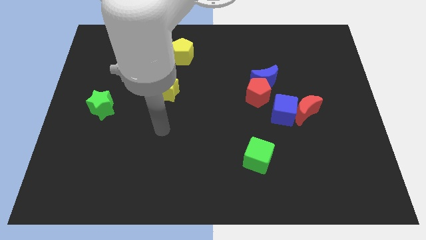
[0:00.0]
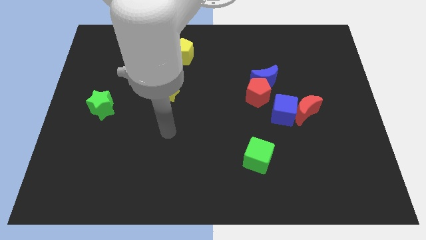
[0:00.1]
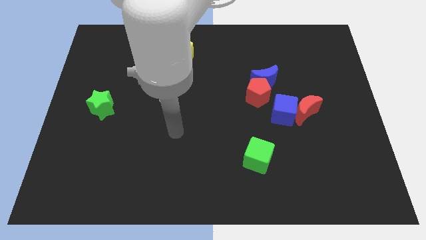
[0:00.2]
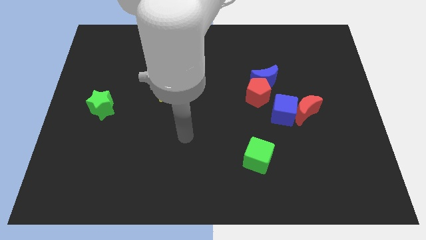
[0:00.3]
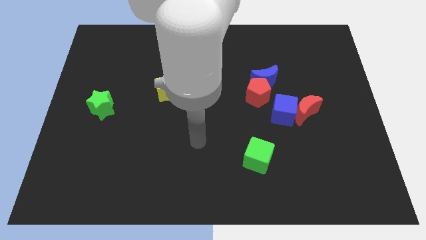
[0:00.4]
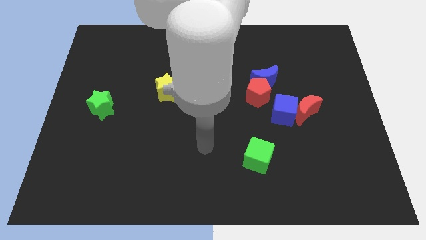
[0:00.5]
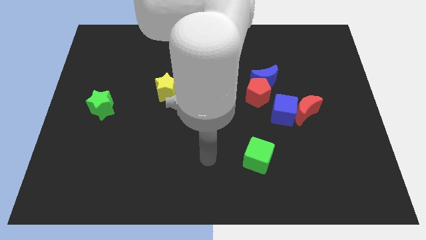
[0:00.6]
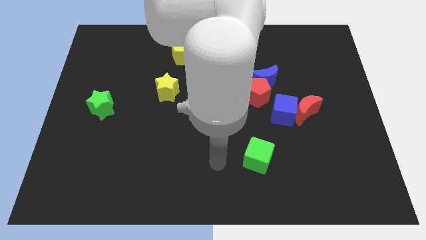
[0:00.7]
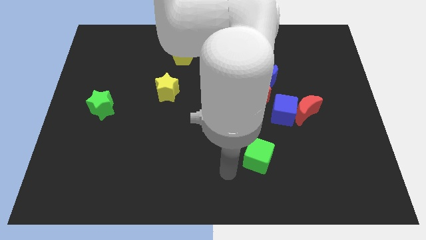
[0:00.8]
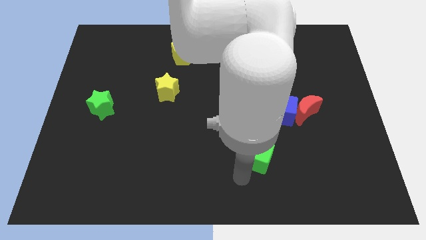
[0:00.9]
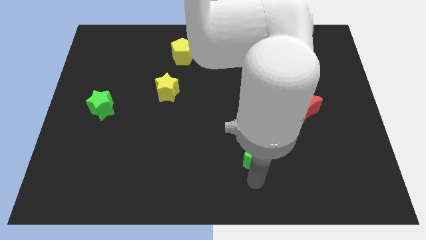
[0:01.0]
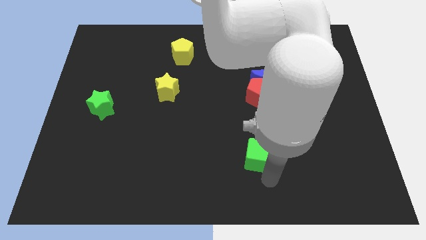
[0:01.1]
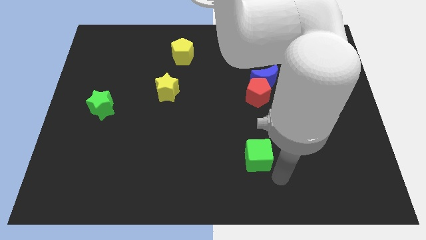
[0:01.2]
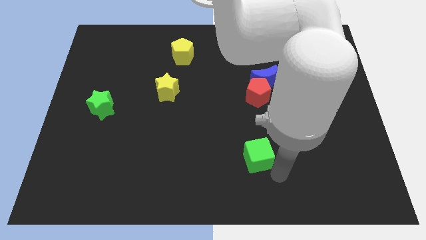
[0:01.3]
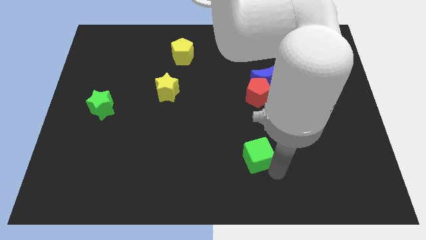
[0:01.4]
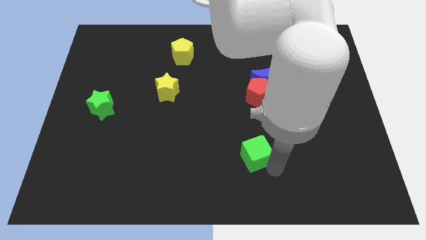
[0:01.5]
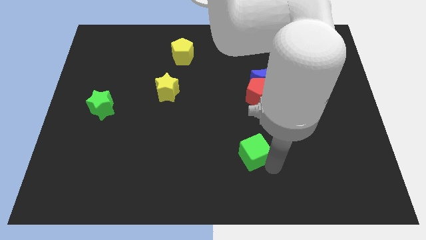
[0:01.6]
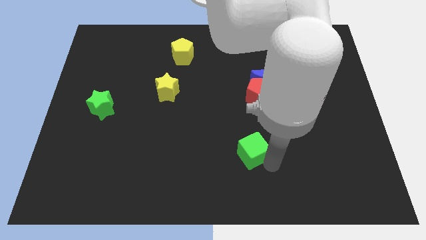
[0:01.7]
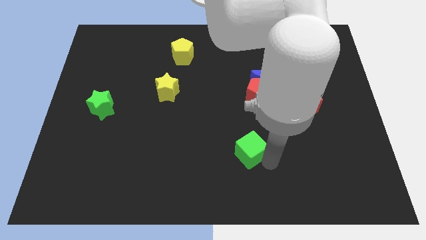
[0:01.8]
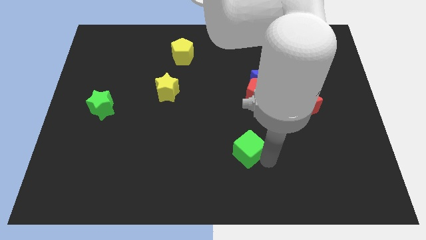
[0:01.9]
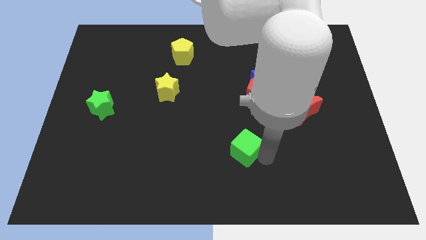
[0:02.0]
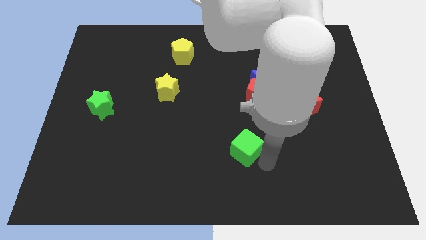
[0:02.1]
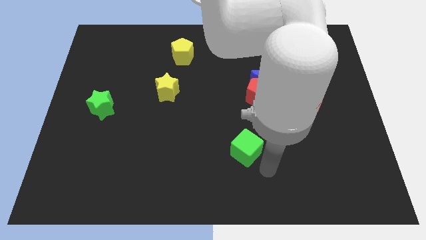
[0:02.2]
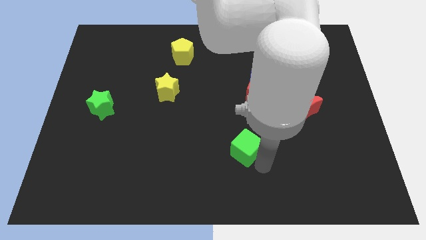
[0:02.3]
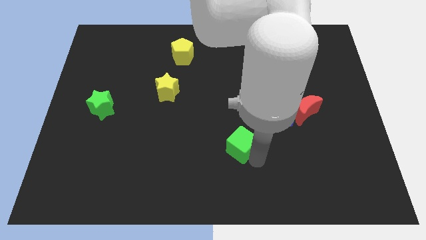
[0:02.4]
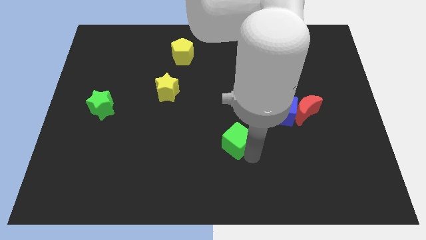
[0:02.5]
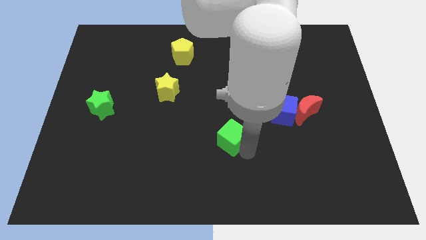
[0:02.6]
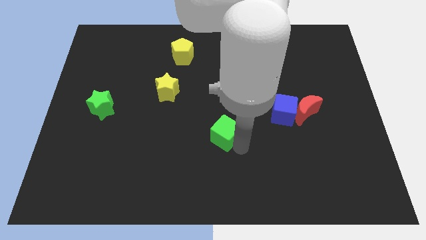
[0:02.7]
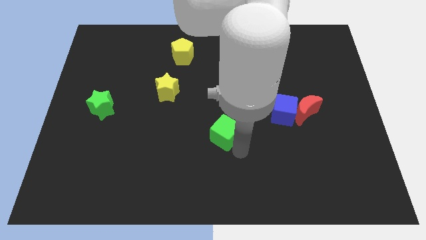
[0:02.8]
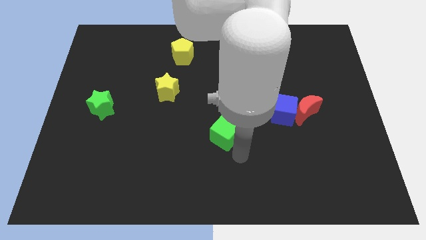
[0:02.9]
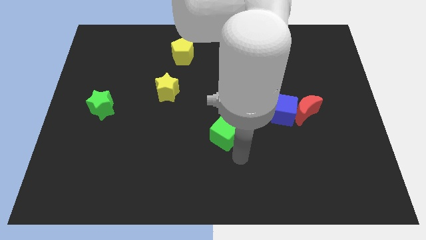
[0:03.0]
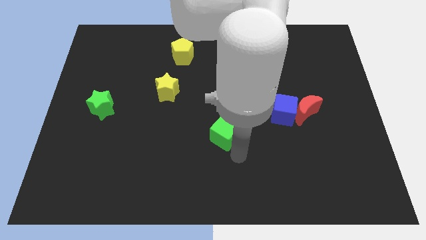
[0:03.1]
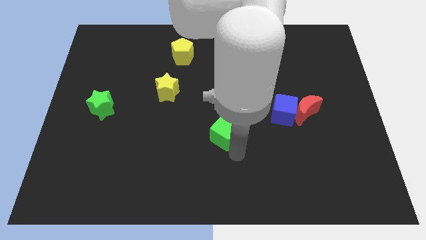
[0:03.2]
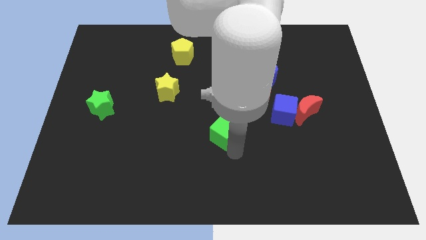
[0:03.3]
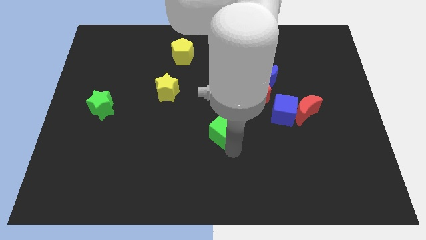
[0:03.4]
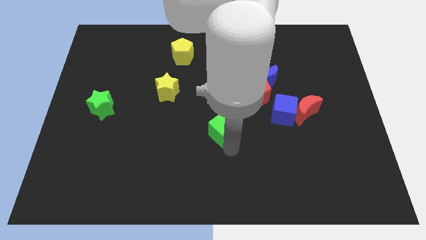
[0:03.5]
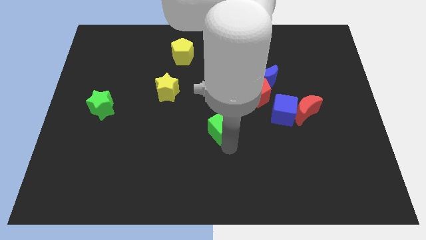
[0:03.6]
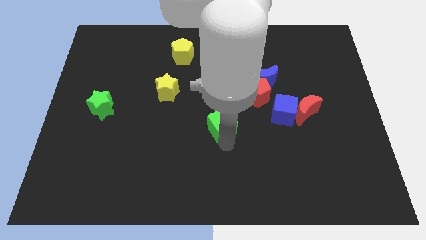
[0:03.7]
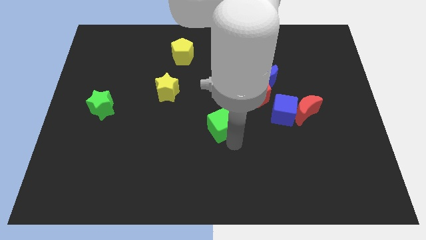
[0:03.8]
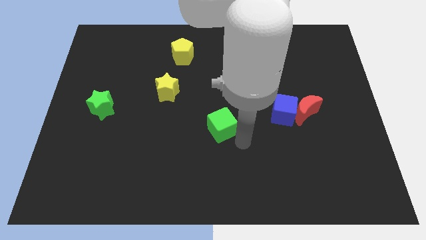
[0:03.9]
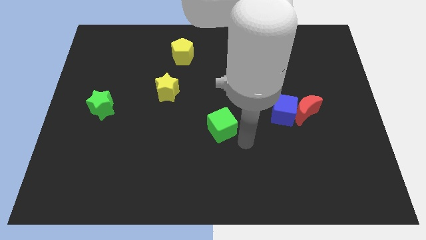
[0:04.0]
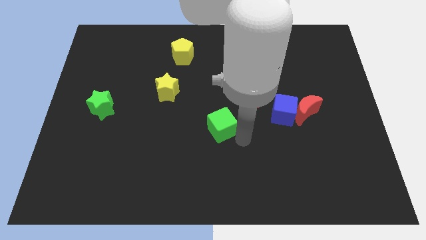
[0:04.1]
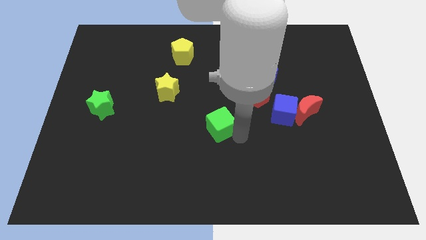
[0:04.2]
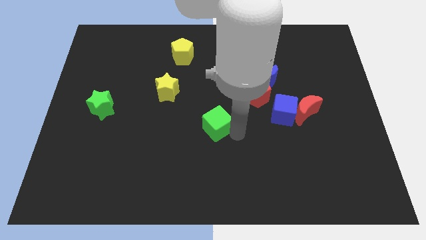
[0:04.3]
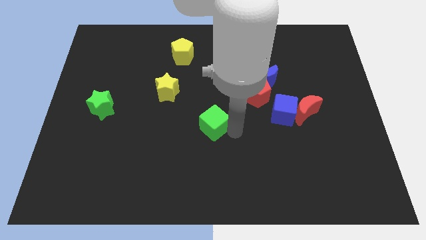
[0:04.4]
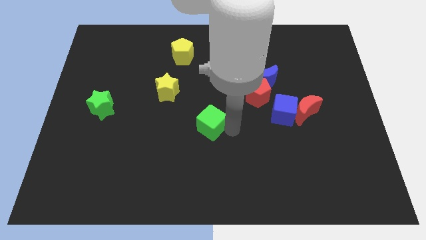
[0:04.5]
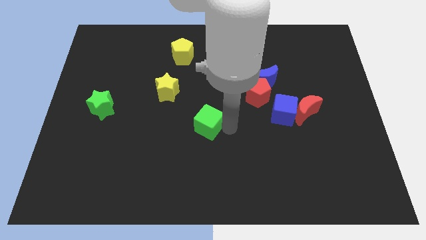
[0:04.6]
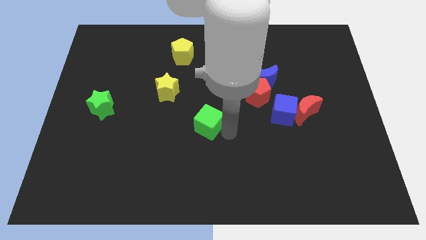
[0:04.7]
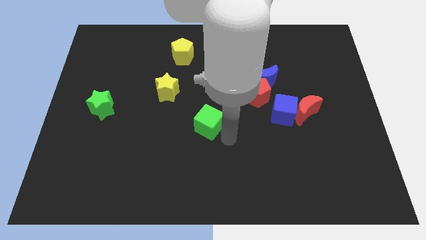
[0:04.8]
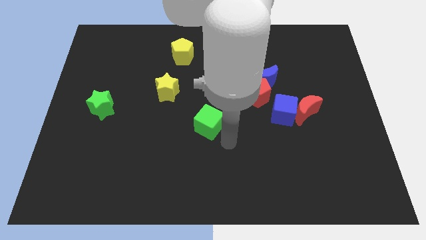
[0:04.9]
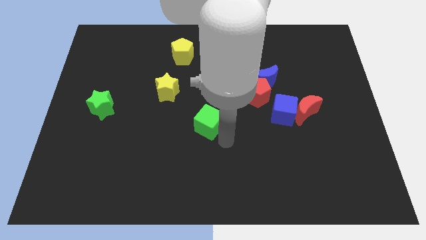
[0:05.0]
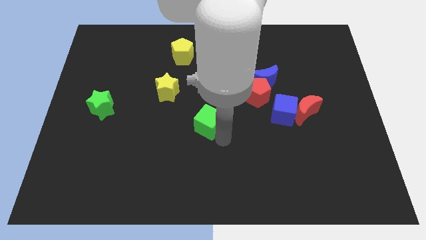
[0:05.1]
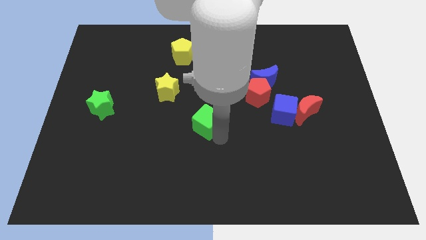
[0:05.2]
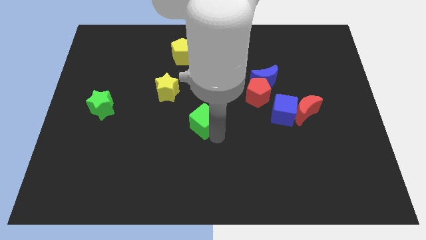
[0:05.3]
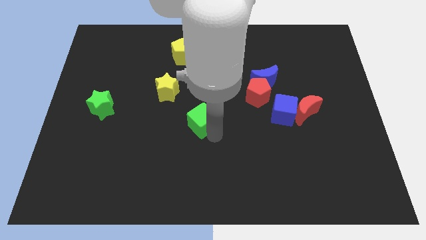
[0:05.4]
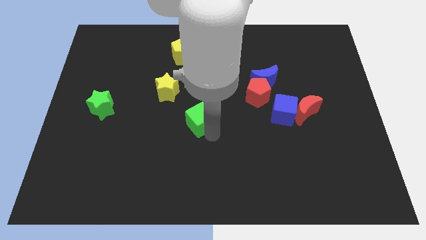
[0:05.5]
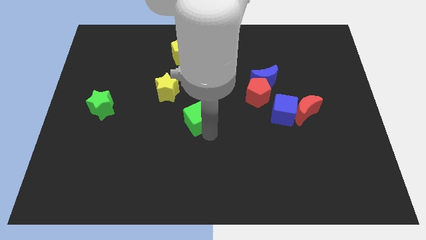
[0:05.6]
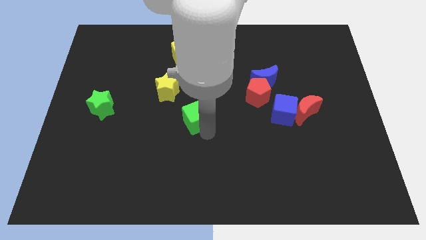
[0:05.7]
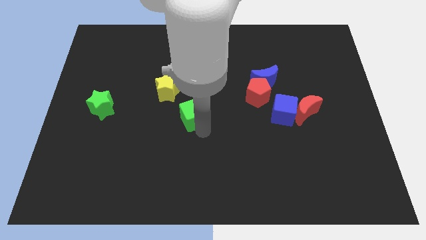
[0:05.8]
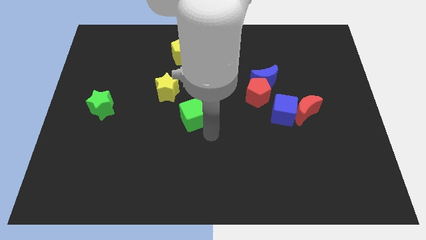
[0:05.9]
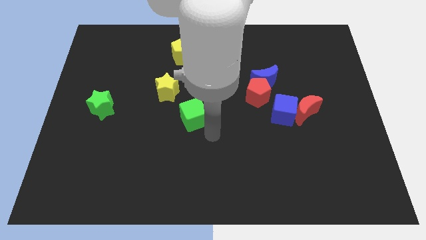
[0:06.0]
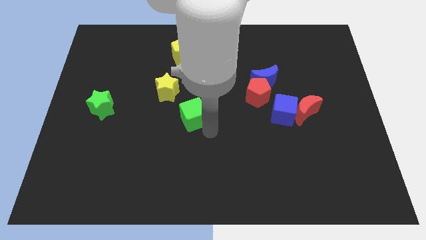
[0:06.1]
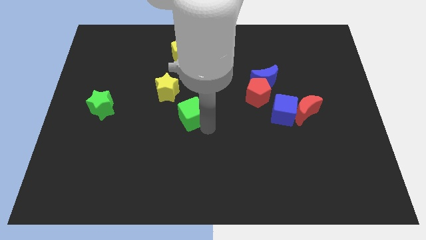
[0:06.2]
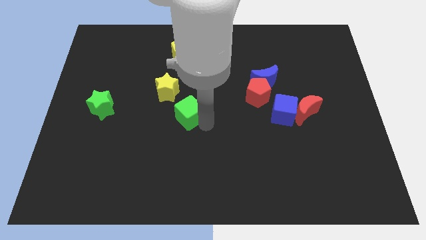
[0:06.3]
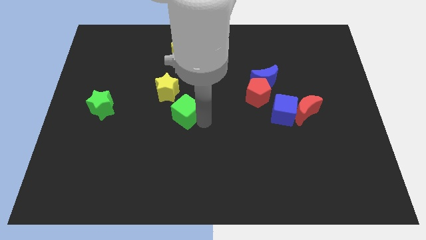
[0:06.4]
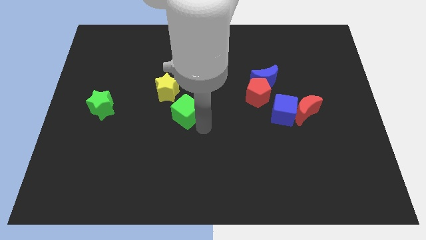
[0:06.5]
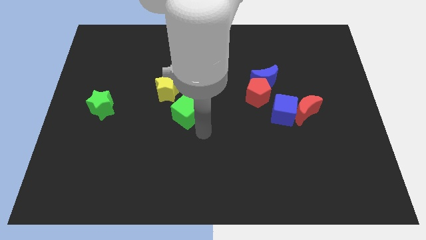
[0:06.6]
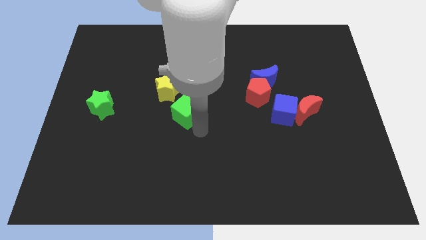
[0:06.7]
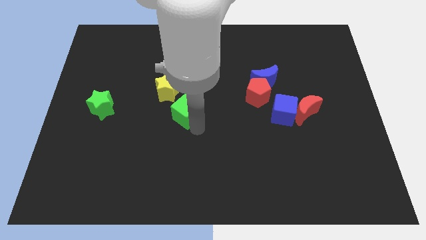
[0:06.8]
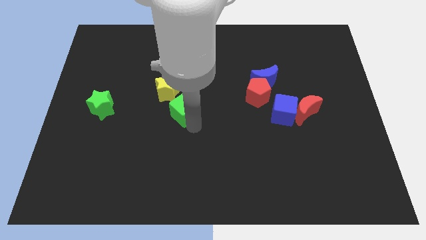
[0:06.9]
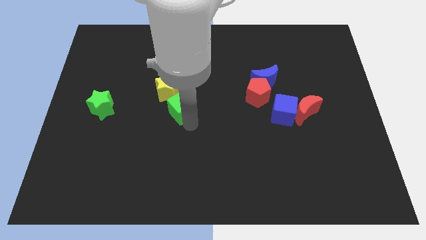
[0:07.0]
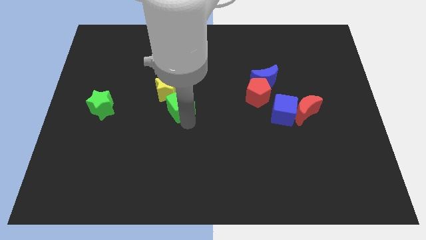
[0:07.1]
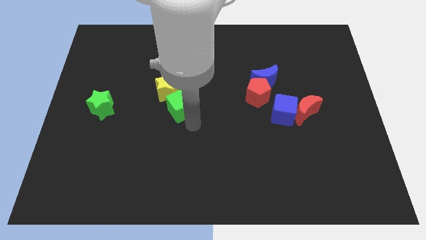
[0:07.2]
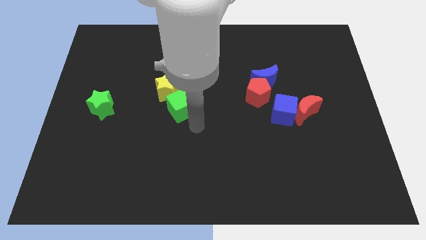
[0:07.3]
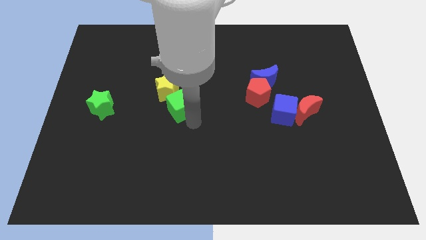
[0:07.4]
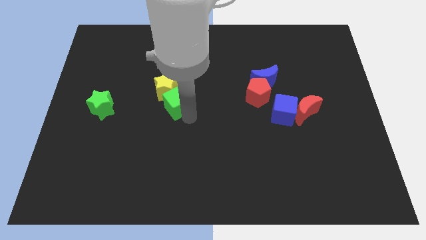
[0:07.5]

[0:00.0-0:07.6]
put the green cube next to the yellow star
